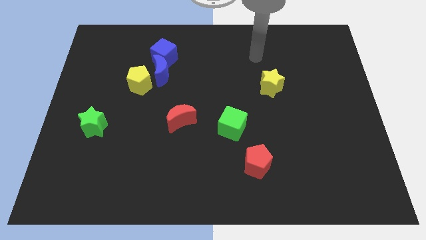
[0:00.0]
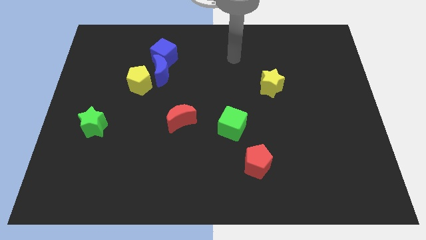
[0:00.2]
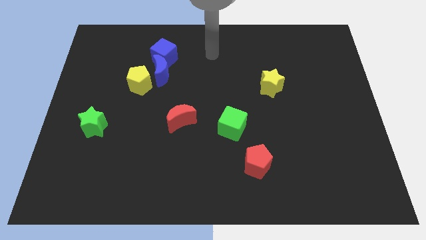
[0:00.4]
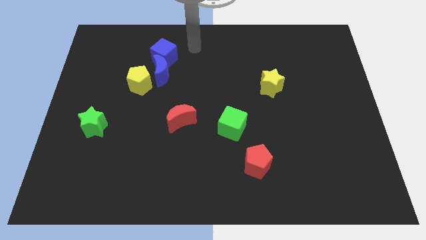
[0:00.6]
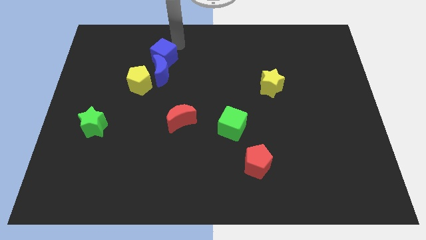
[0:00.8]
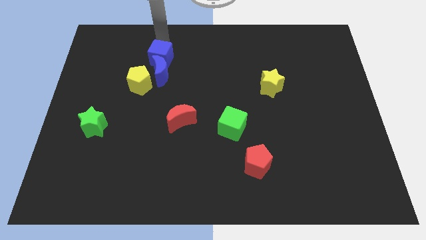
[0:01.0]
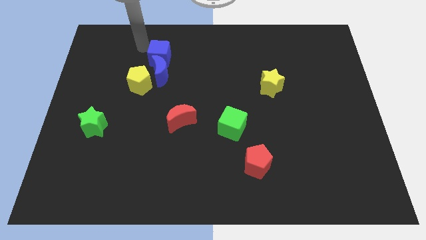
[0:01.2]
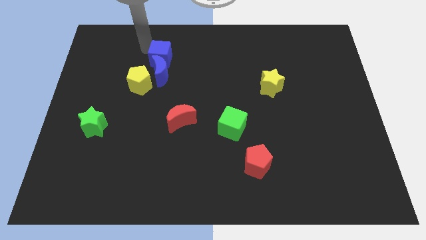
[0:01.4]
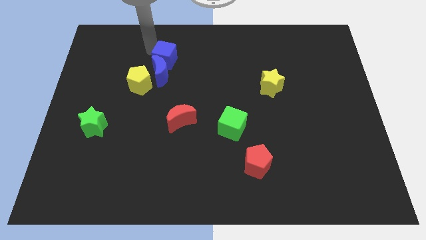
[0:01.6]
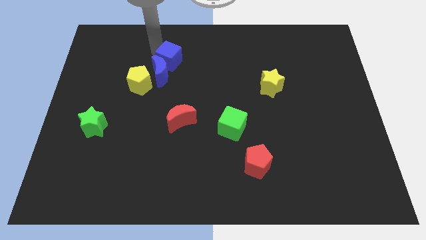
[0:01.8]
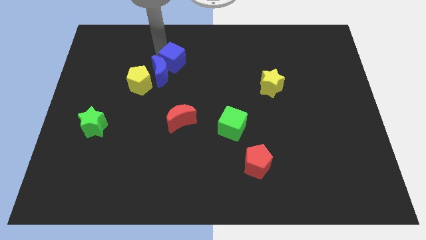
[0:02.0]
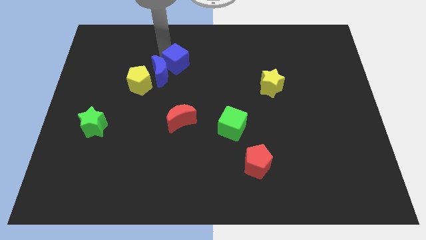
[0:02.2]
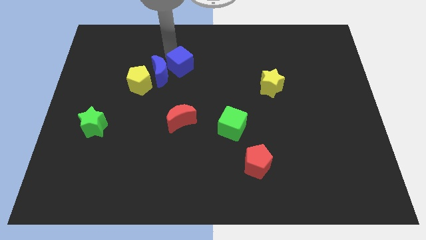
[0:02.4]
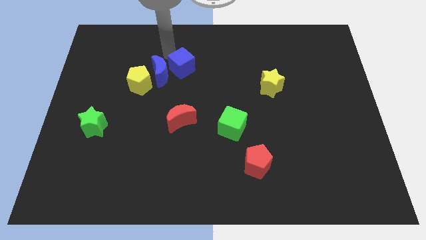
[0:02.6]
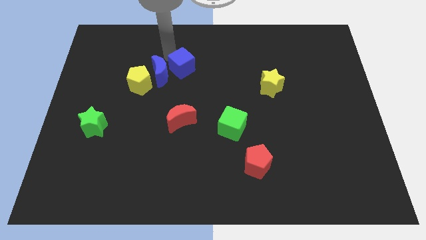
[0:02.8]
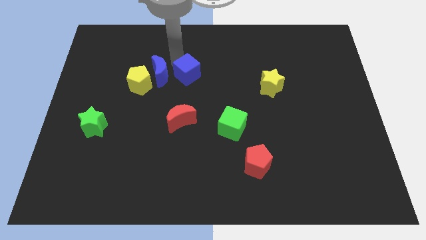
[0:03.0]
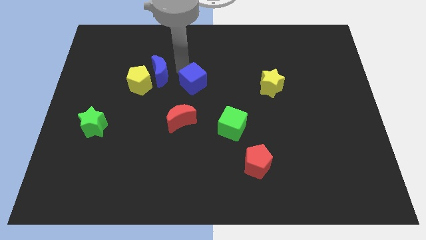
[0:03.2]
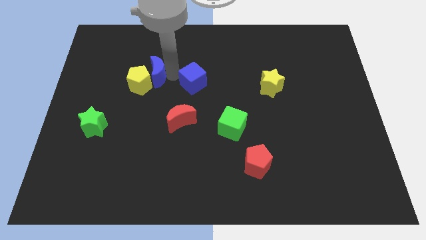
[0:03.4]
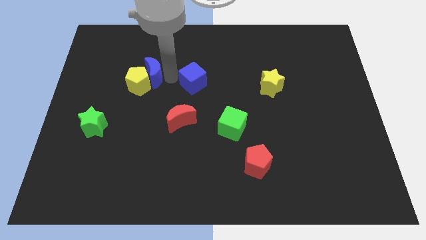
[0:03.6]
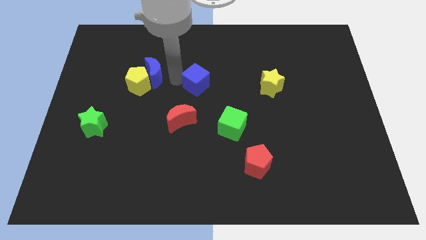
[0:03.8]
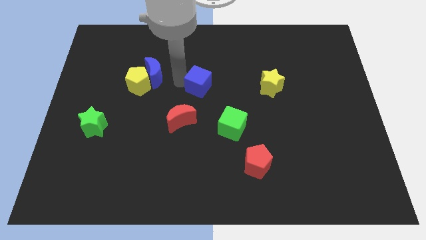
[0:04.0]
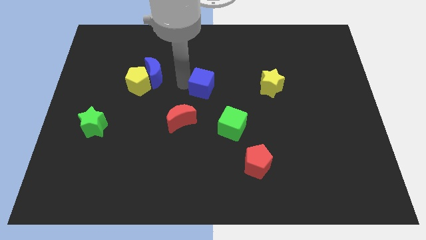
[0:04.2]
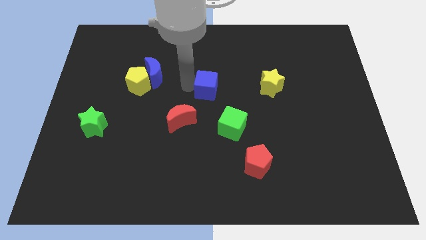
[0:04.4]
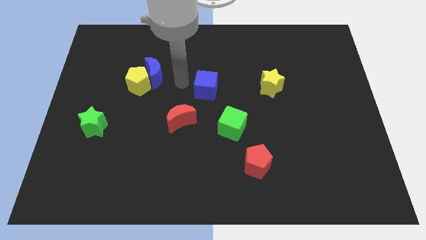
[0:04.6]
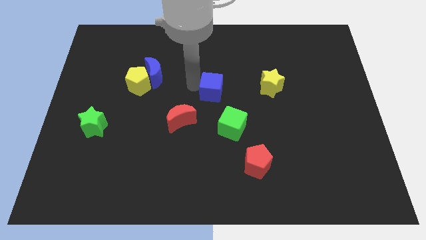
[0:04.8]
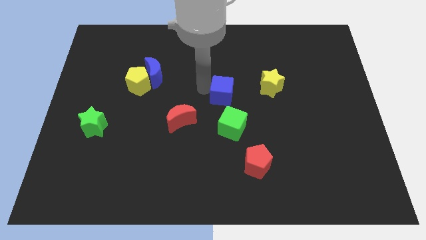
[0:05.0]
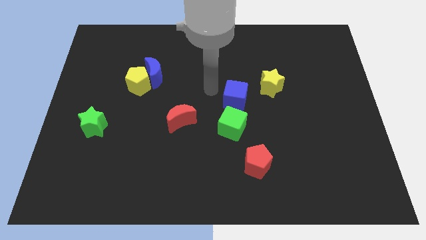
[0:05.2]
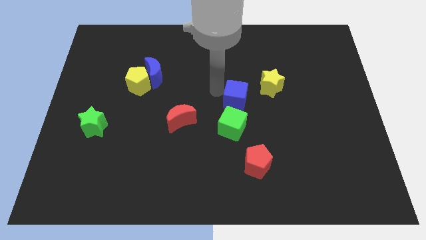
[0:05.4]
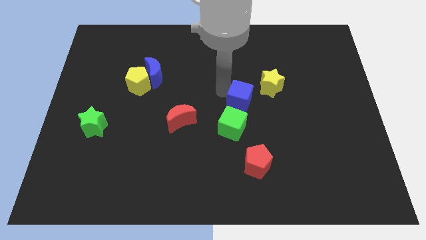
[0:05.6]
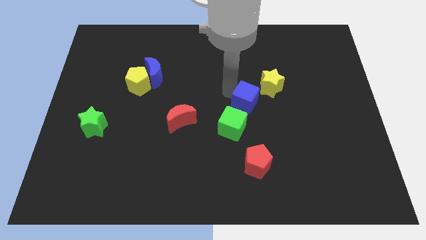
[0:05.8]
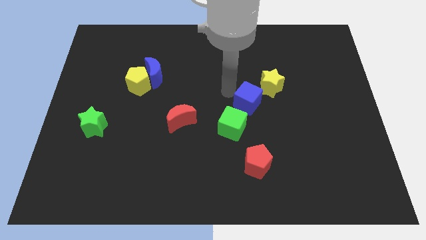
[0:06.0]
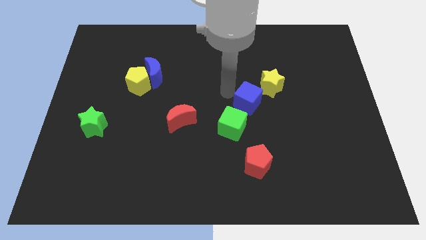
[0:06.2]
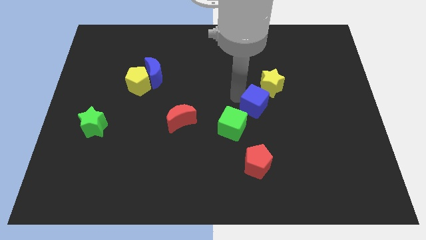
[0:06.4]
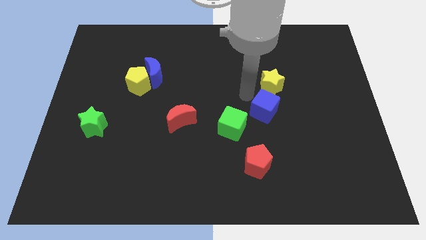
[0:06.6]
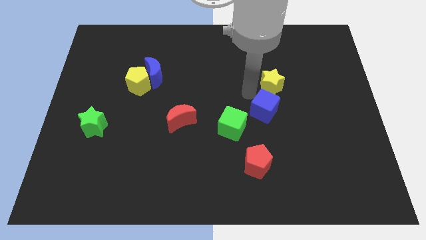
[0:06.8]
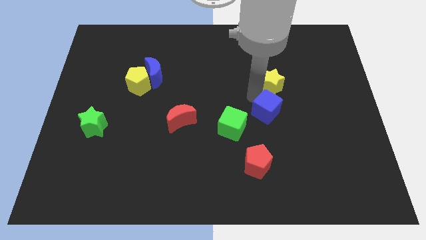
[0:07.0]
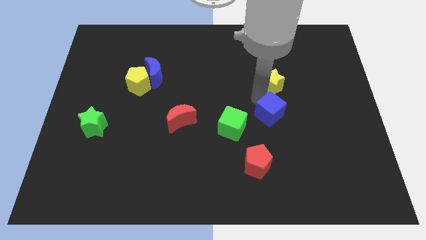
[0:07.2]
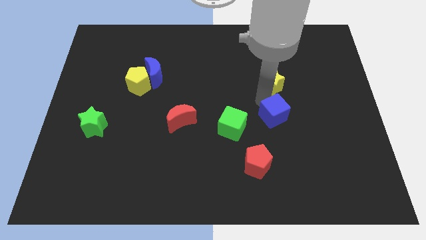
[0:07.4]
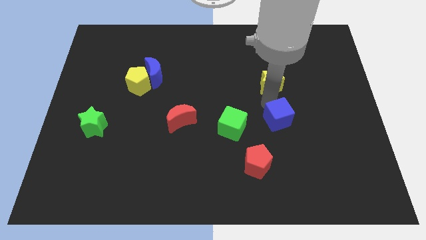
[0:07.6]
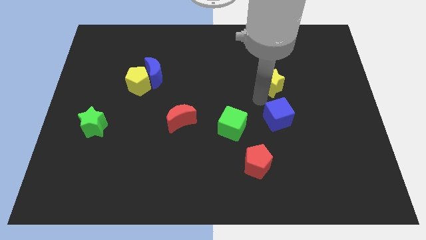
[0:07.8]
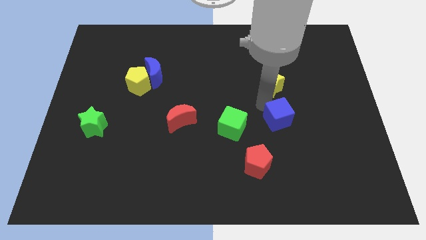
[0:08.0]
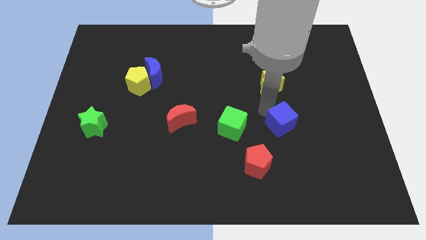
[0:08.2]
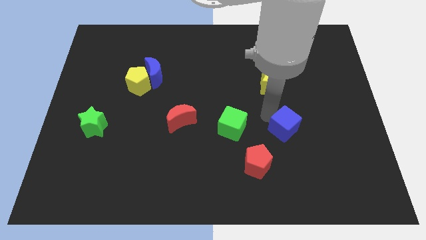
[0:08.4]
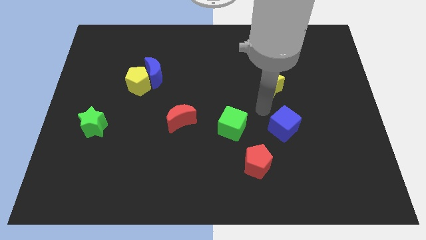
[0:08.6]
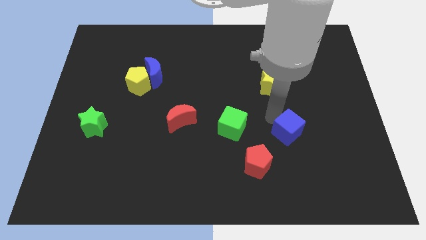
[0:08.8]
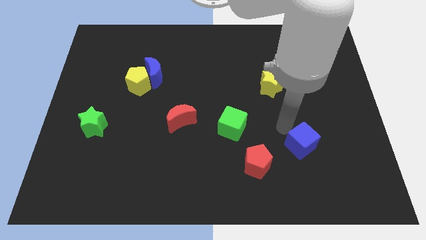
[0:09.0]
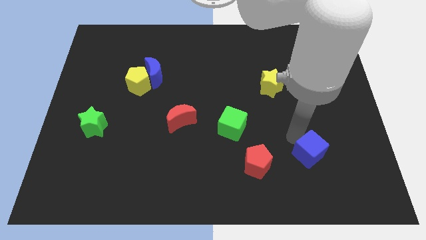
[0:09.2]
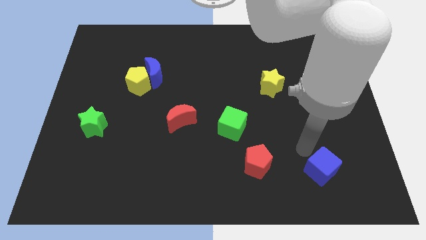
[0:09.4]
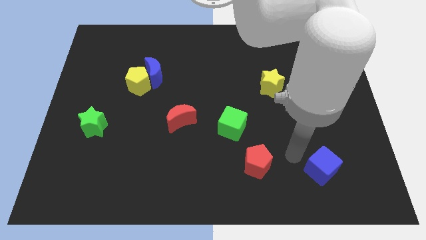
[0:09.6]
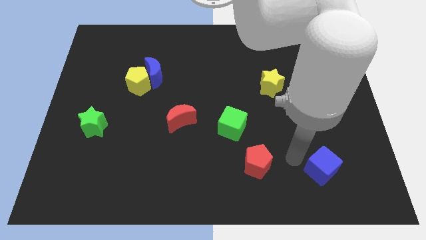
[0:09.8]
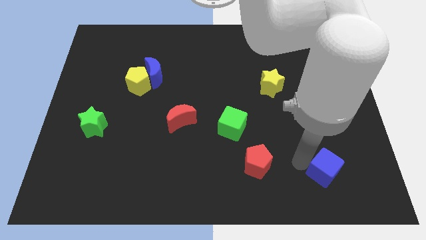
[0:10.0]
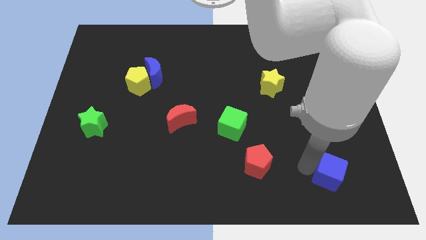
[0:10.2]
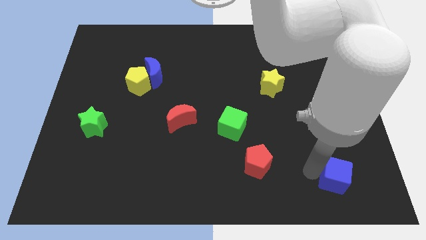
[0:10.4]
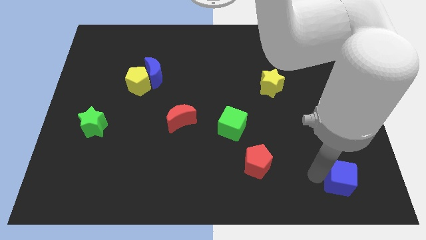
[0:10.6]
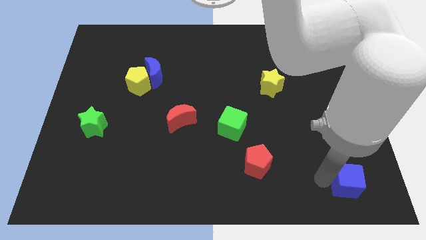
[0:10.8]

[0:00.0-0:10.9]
move the blue cube to the bottom right corner

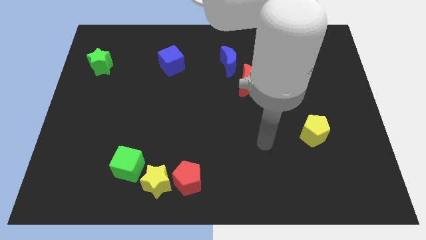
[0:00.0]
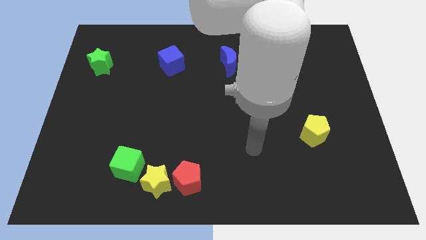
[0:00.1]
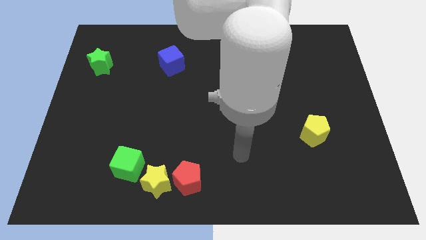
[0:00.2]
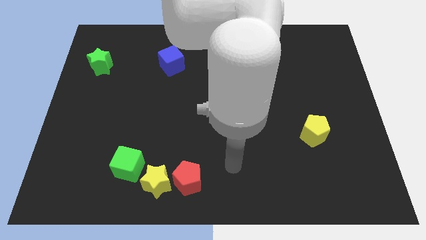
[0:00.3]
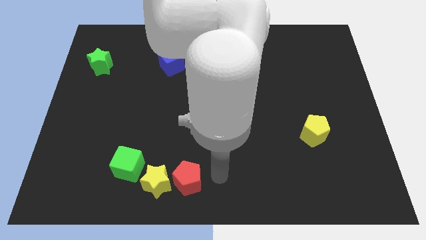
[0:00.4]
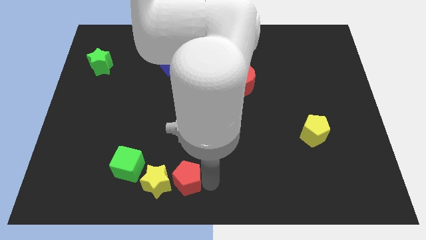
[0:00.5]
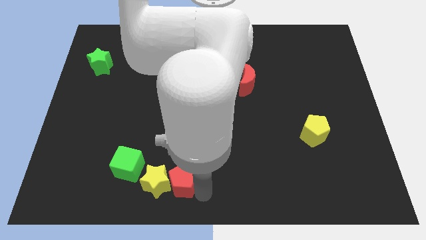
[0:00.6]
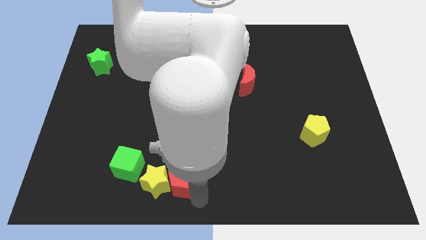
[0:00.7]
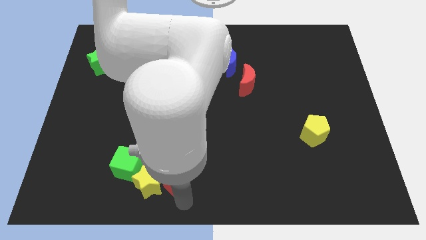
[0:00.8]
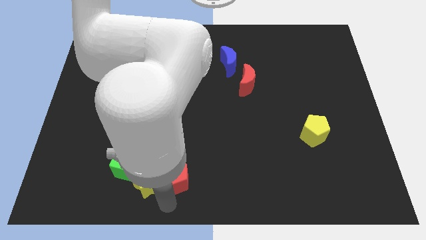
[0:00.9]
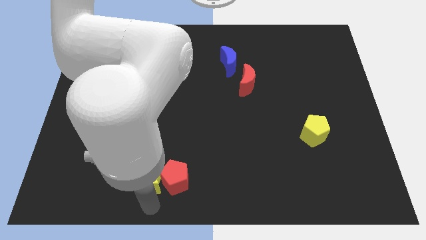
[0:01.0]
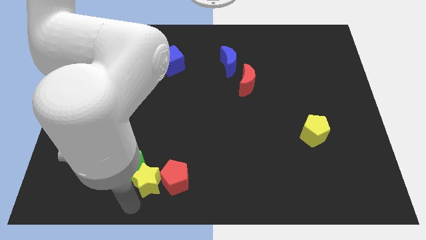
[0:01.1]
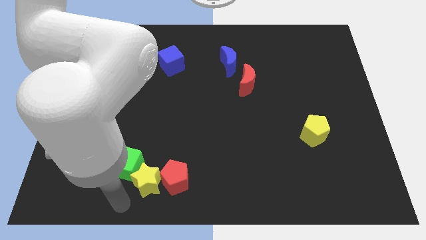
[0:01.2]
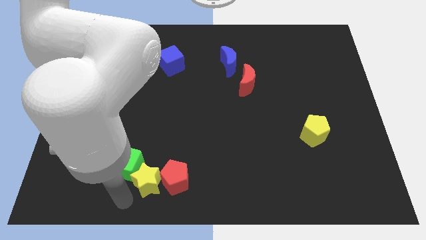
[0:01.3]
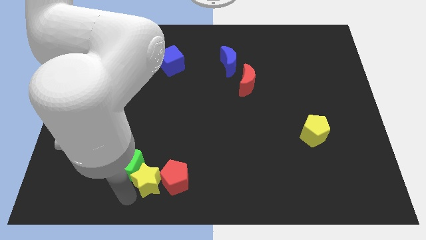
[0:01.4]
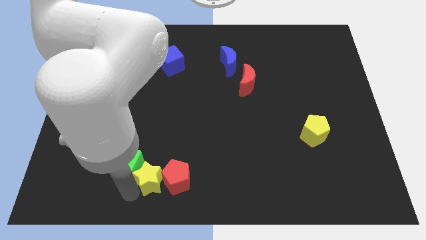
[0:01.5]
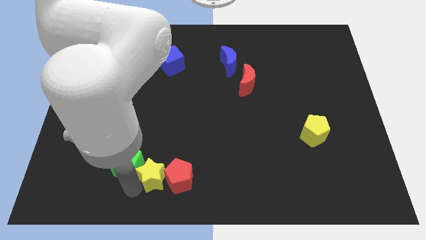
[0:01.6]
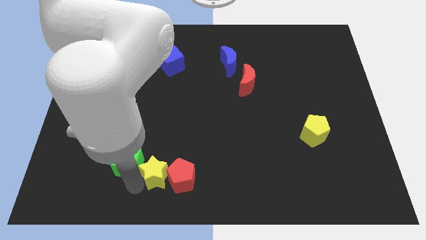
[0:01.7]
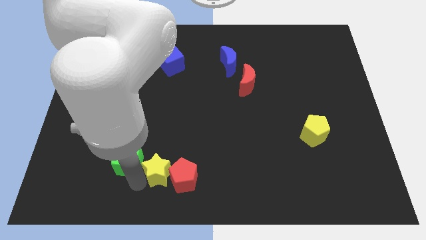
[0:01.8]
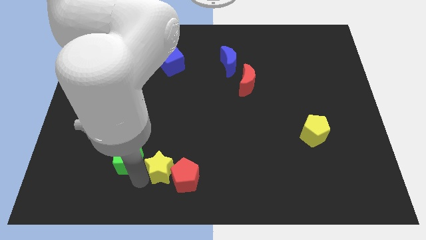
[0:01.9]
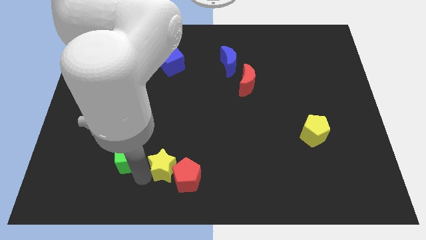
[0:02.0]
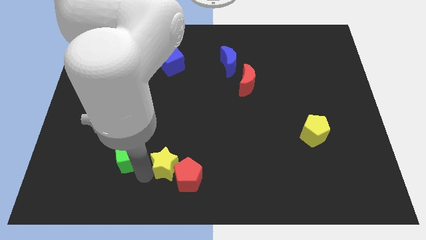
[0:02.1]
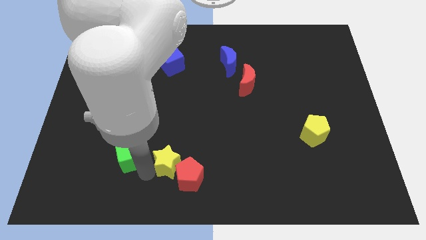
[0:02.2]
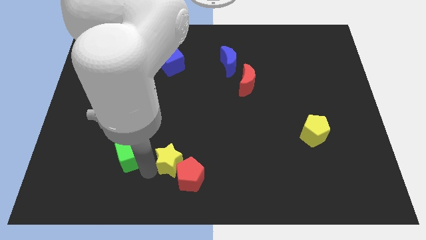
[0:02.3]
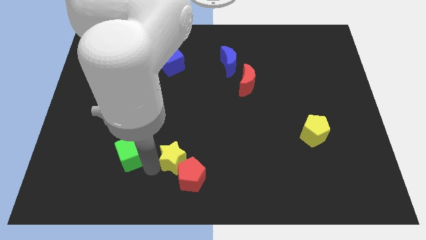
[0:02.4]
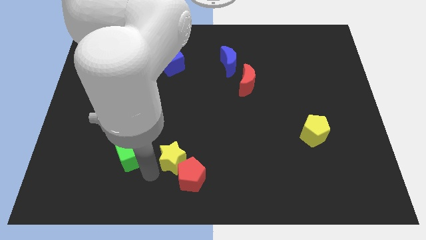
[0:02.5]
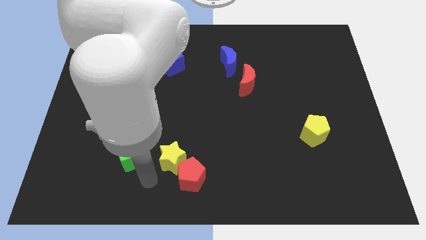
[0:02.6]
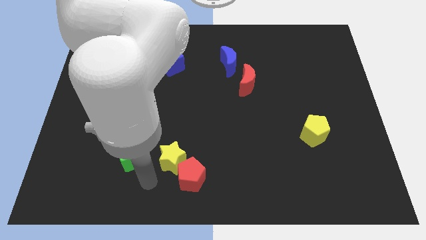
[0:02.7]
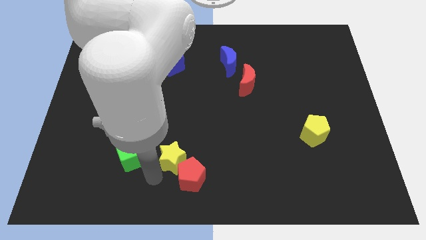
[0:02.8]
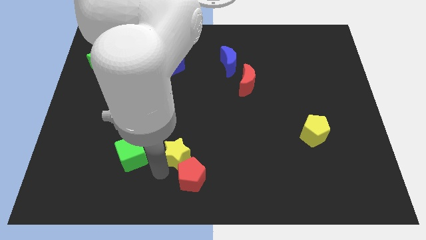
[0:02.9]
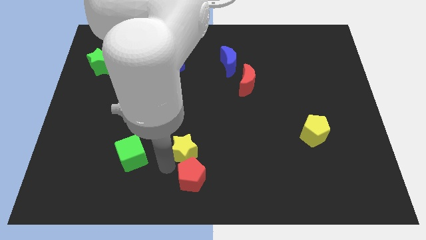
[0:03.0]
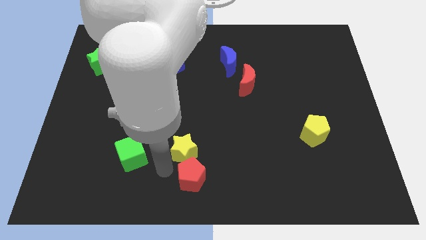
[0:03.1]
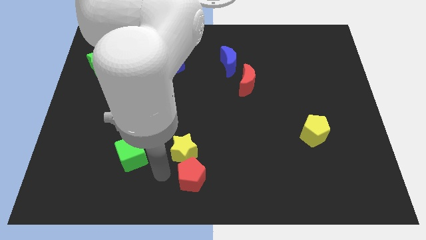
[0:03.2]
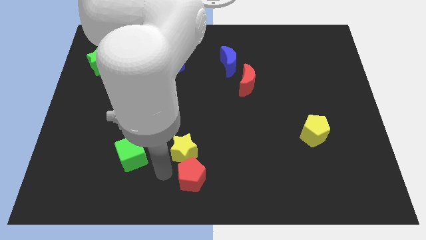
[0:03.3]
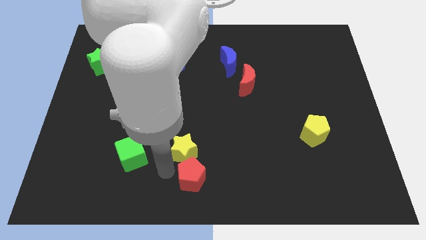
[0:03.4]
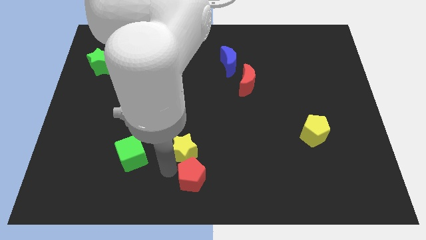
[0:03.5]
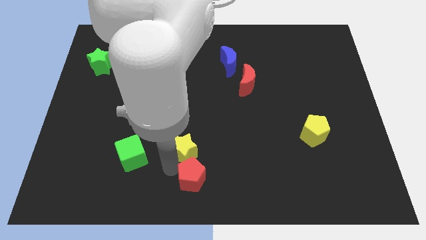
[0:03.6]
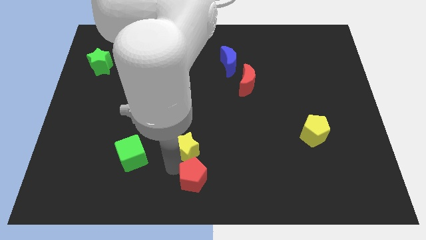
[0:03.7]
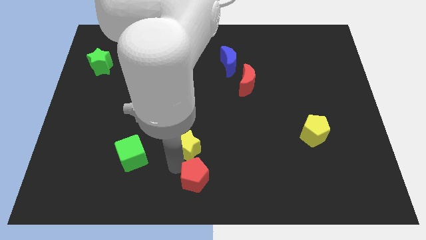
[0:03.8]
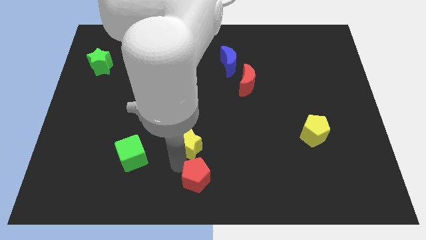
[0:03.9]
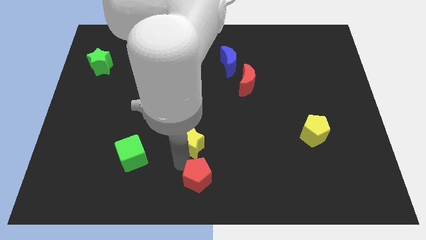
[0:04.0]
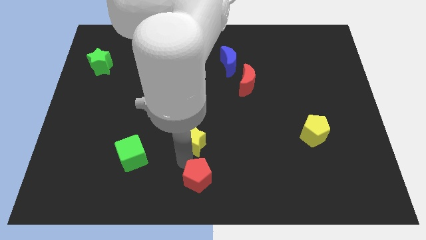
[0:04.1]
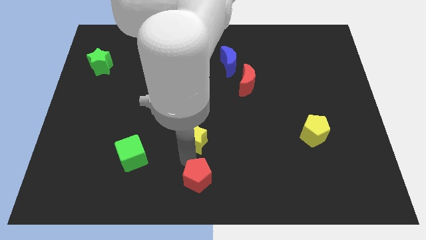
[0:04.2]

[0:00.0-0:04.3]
move the yellow star to the center of the board
